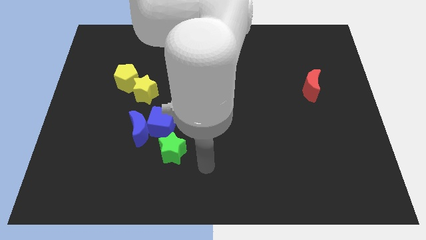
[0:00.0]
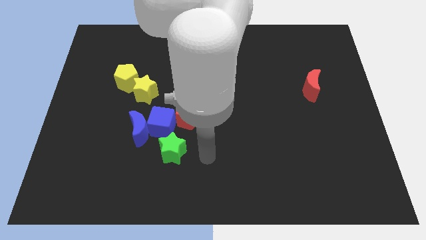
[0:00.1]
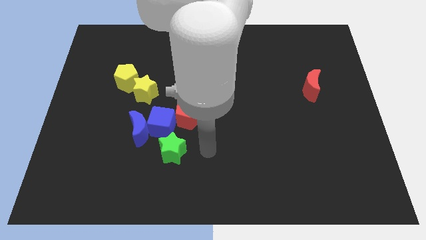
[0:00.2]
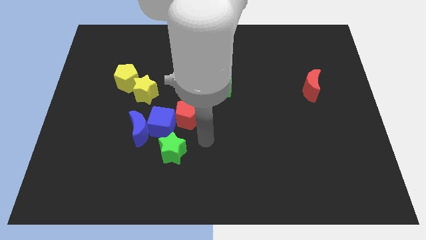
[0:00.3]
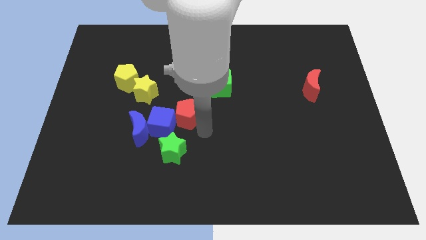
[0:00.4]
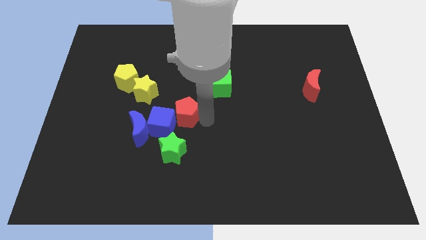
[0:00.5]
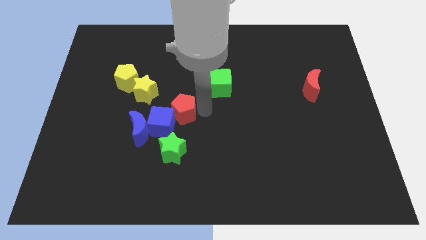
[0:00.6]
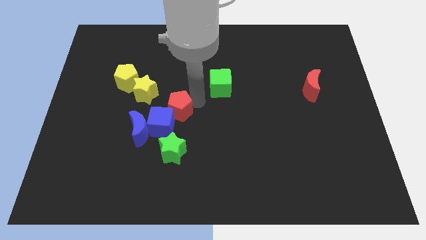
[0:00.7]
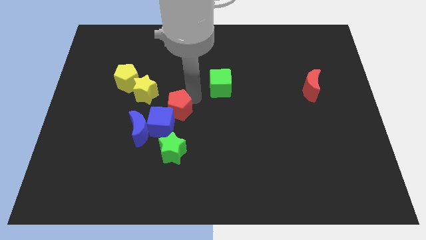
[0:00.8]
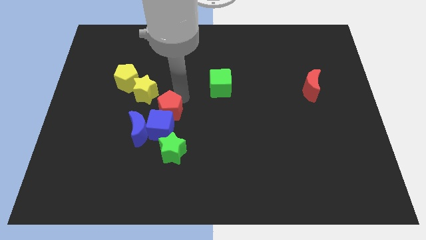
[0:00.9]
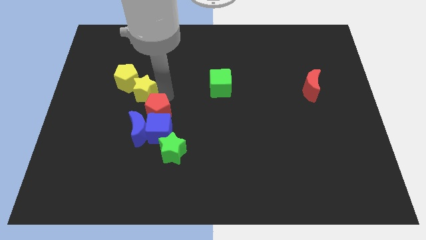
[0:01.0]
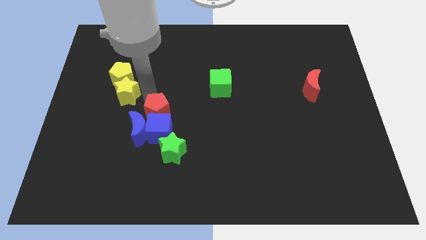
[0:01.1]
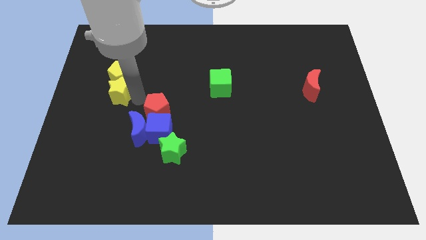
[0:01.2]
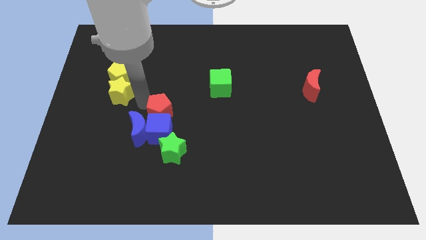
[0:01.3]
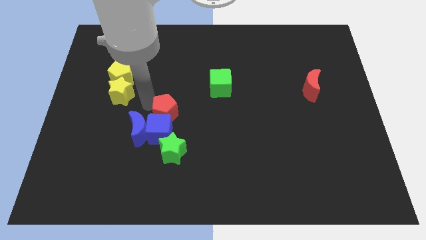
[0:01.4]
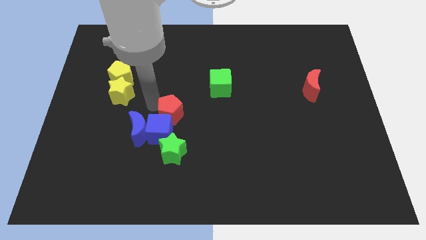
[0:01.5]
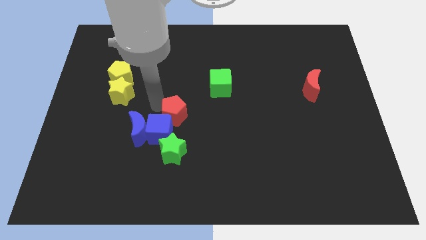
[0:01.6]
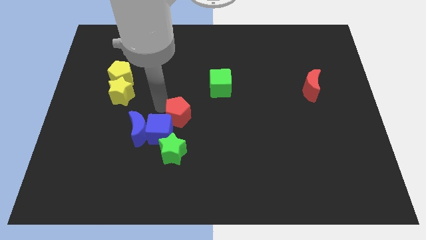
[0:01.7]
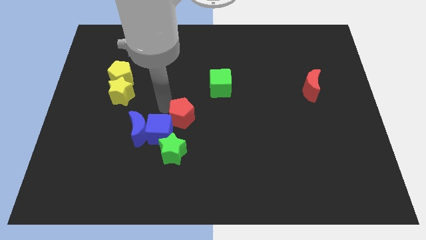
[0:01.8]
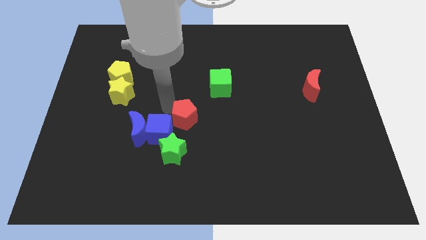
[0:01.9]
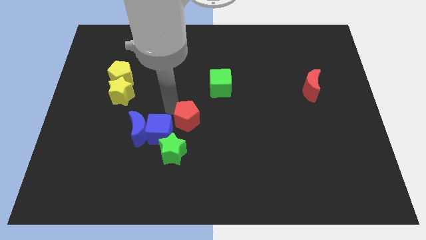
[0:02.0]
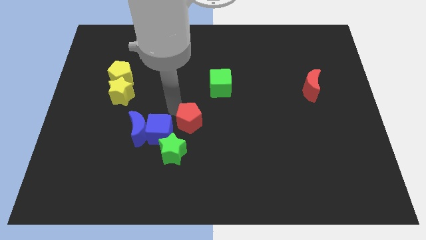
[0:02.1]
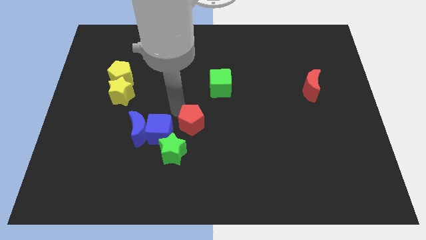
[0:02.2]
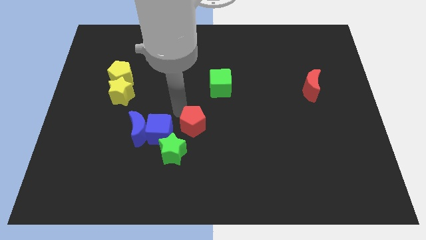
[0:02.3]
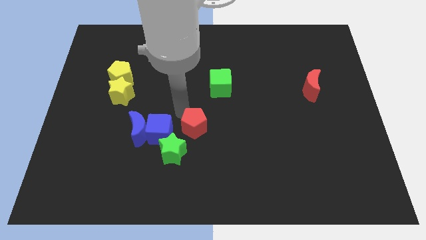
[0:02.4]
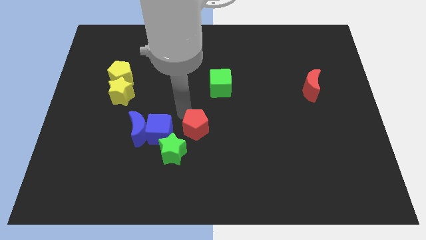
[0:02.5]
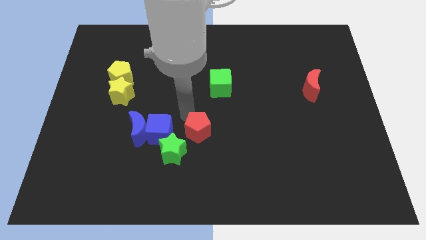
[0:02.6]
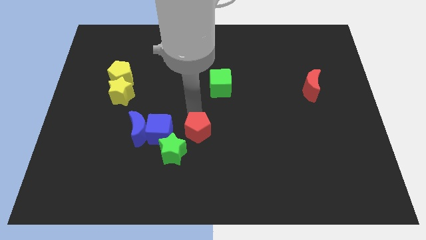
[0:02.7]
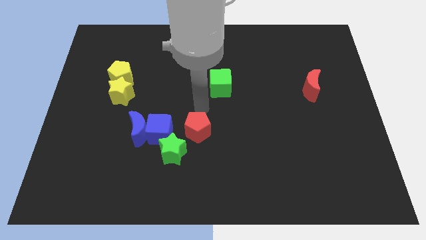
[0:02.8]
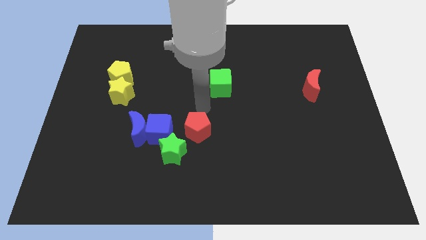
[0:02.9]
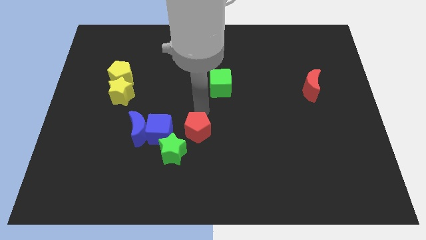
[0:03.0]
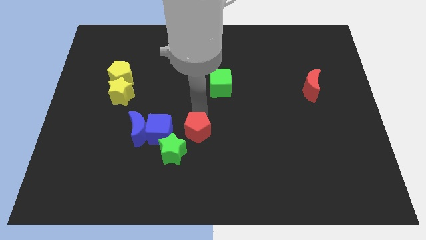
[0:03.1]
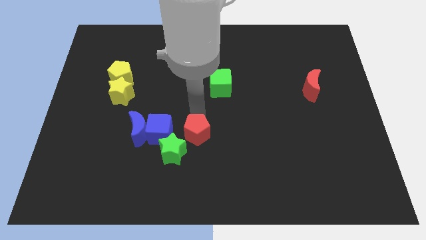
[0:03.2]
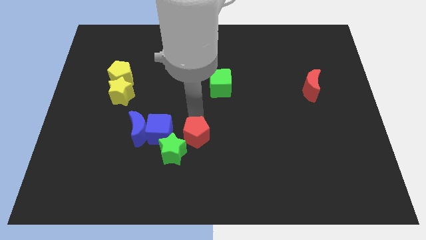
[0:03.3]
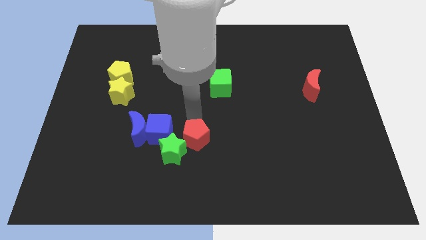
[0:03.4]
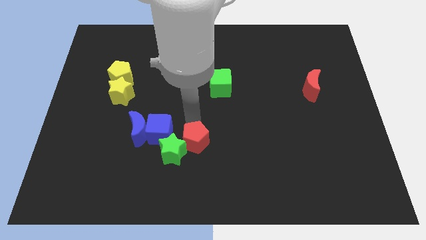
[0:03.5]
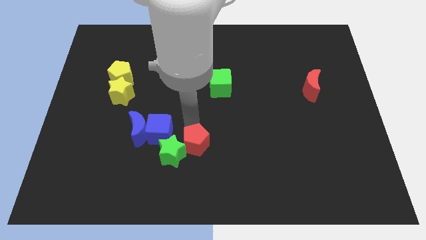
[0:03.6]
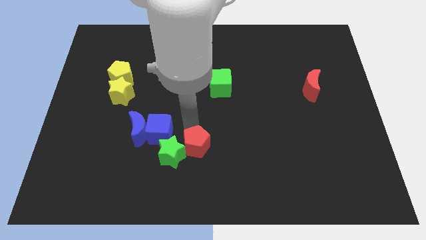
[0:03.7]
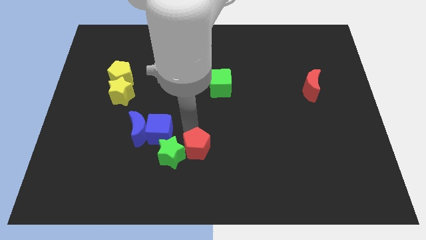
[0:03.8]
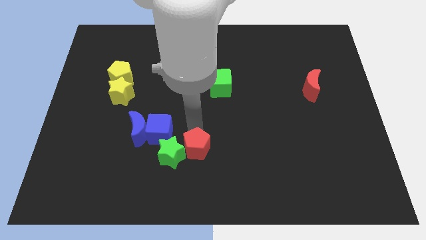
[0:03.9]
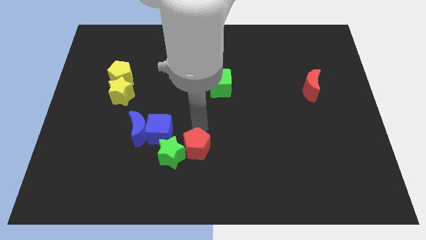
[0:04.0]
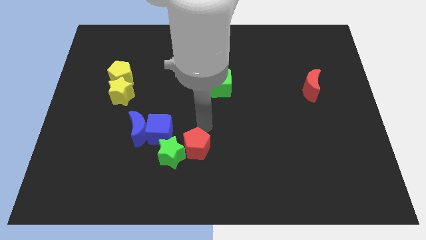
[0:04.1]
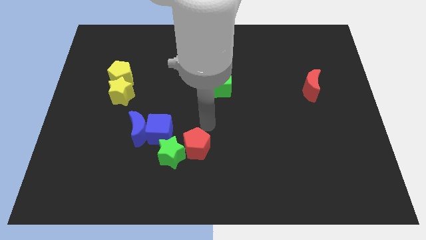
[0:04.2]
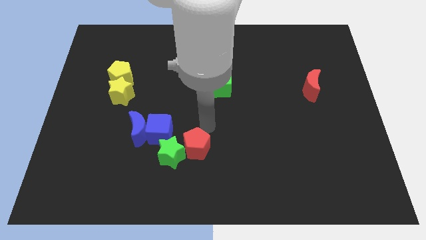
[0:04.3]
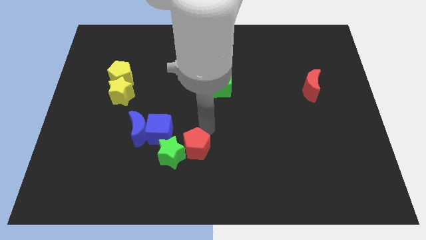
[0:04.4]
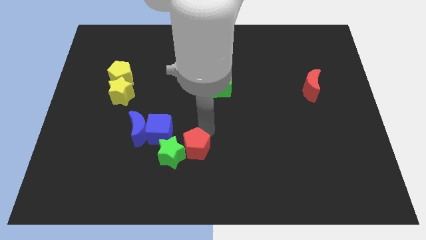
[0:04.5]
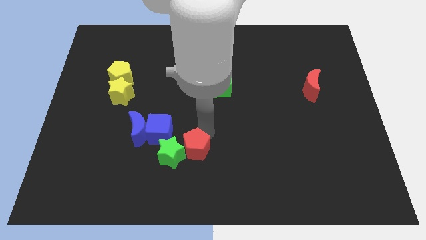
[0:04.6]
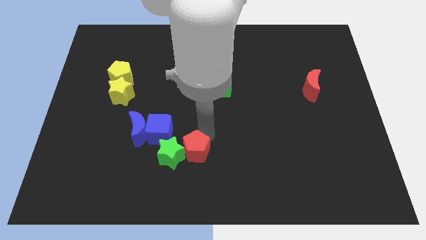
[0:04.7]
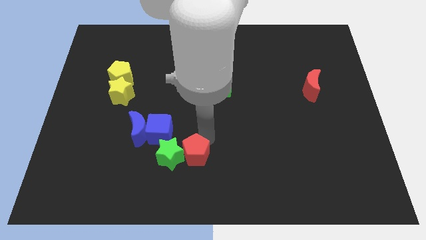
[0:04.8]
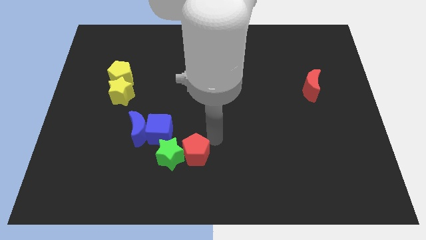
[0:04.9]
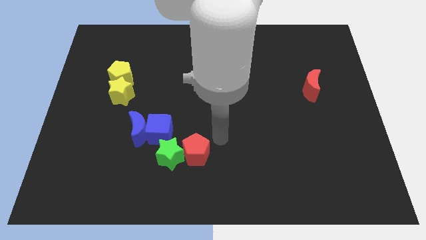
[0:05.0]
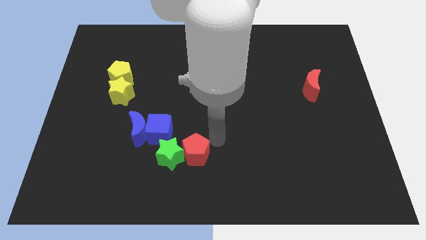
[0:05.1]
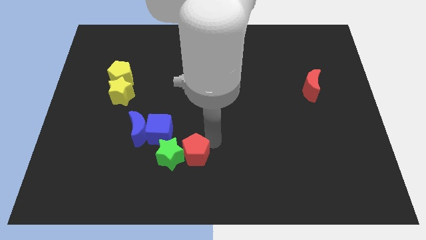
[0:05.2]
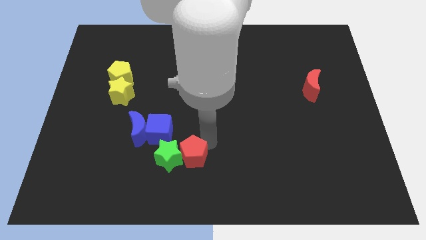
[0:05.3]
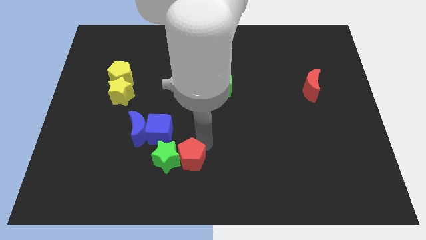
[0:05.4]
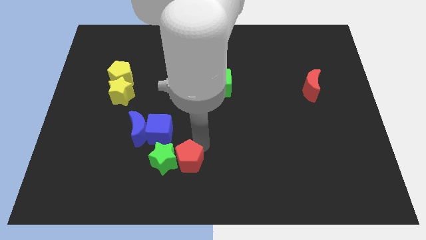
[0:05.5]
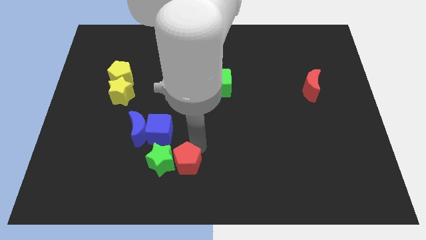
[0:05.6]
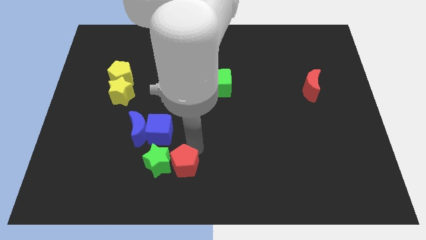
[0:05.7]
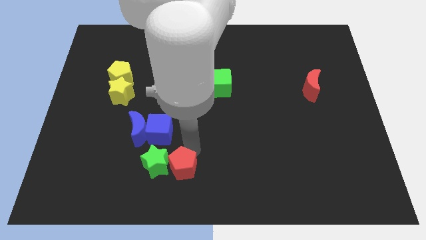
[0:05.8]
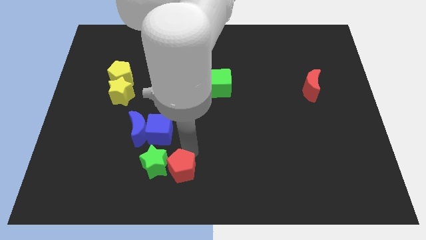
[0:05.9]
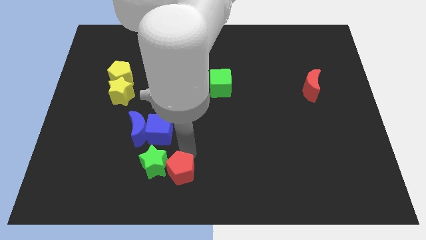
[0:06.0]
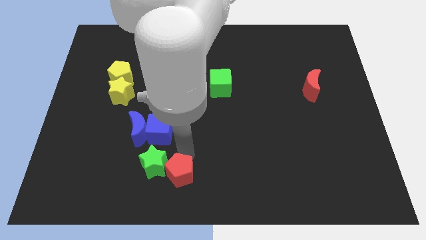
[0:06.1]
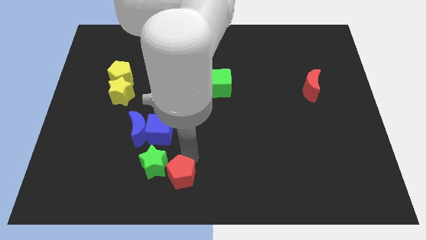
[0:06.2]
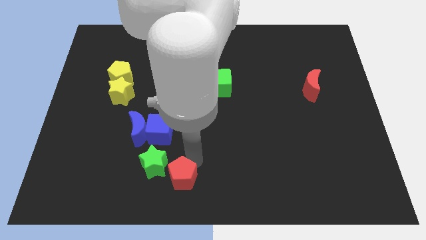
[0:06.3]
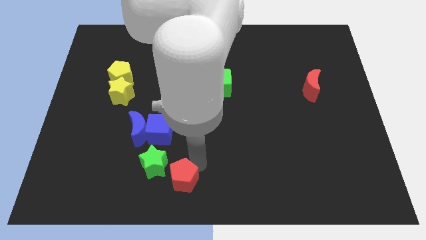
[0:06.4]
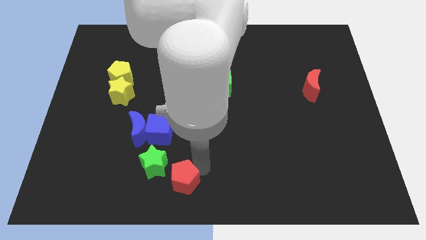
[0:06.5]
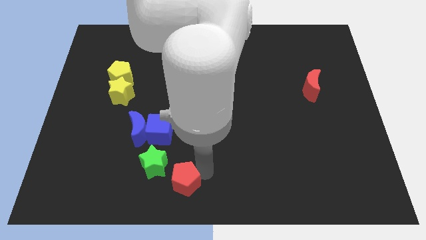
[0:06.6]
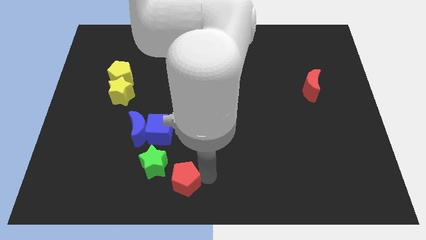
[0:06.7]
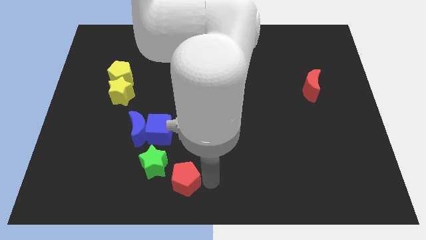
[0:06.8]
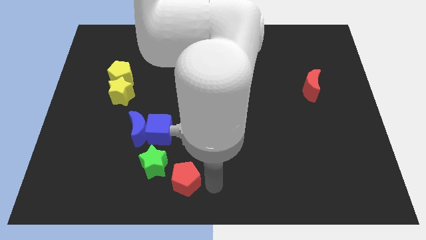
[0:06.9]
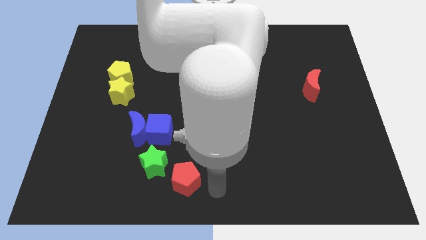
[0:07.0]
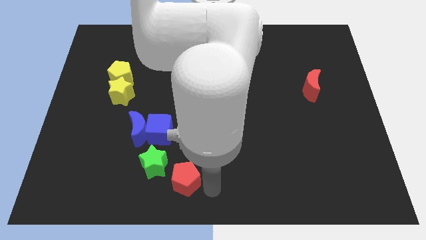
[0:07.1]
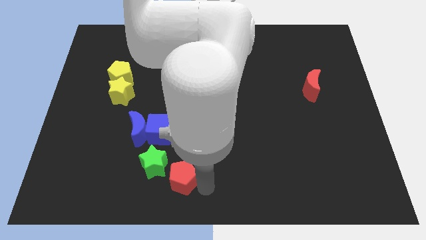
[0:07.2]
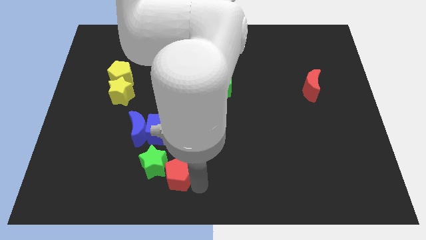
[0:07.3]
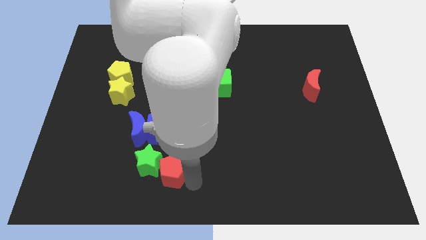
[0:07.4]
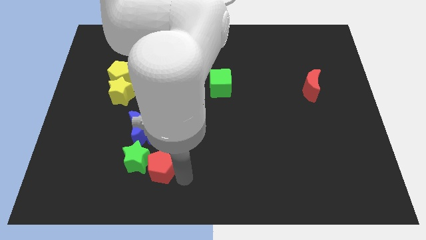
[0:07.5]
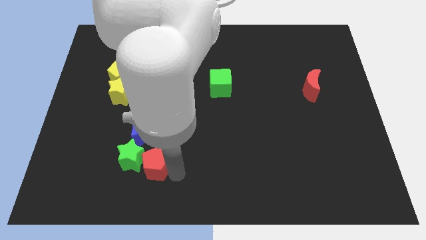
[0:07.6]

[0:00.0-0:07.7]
put the red pentagon to the bottom of the blue moon
